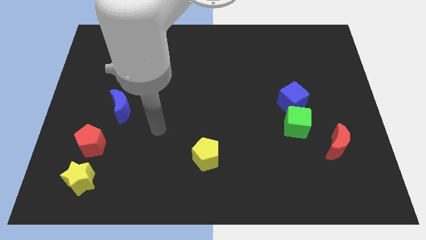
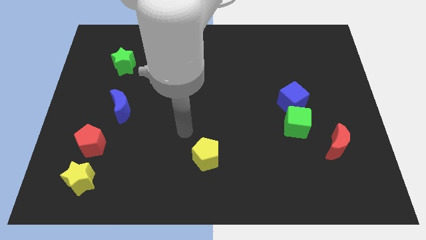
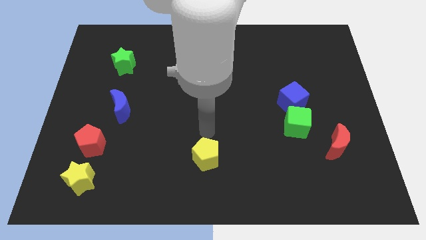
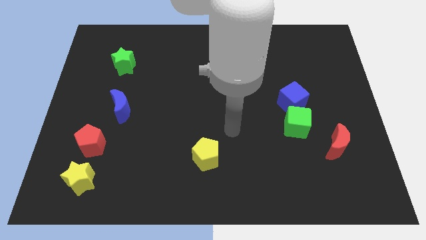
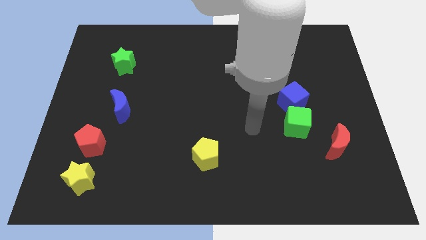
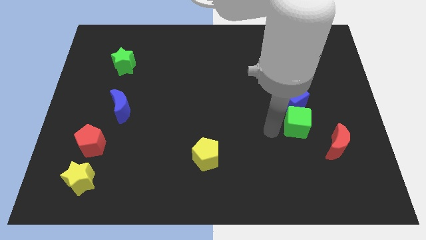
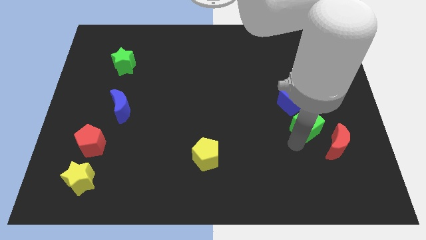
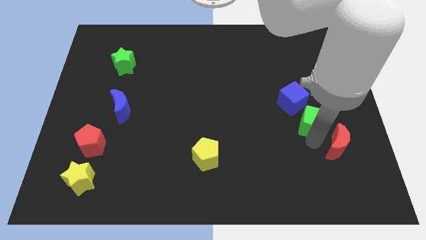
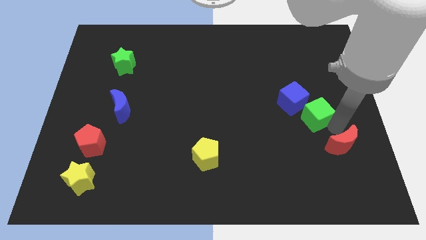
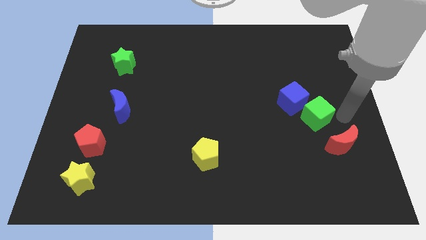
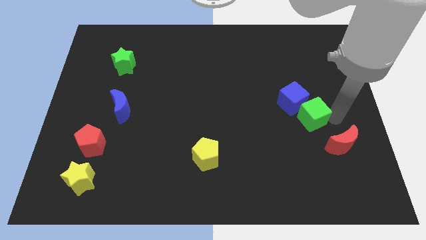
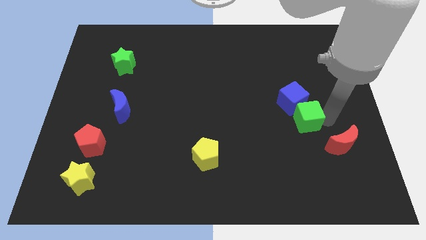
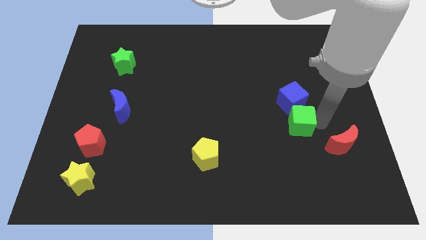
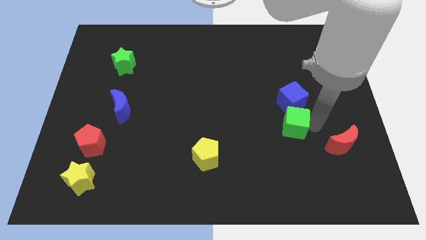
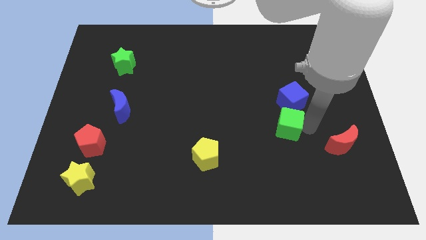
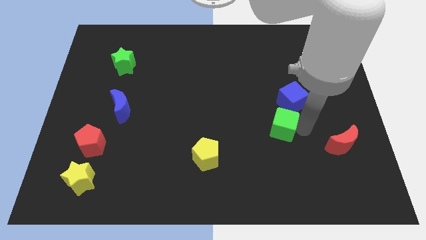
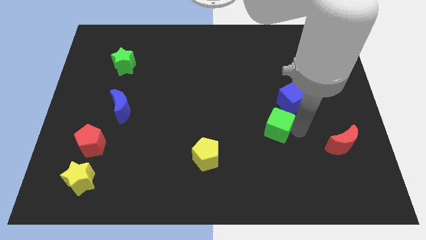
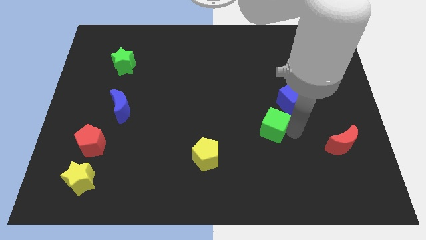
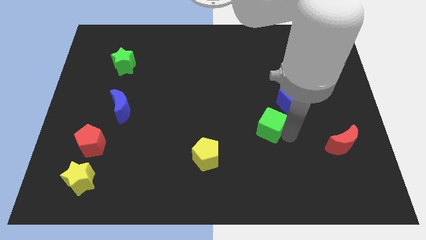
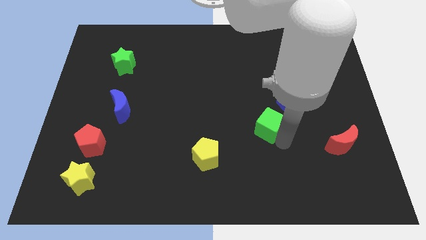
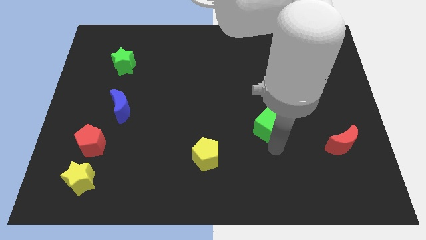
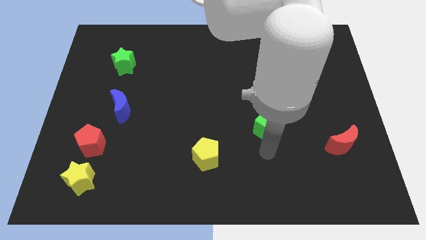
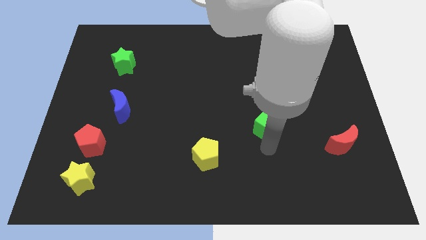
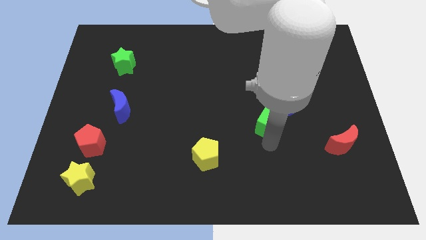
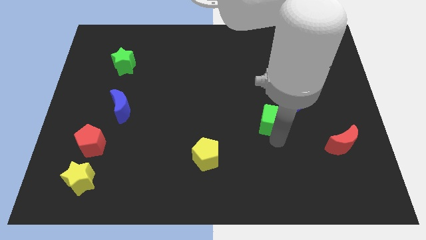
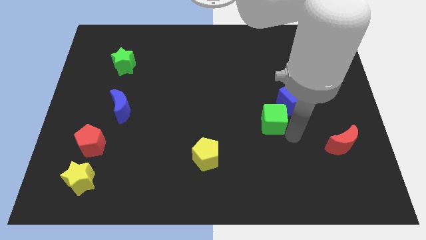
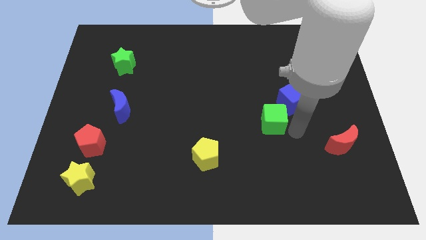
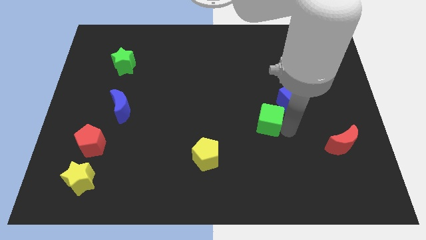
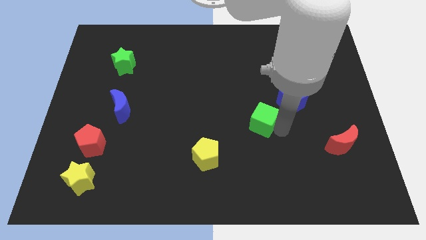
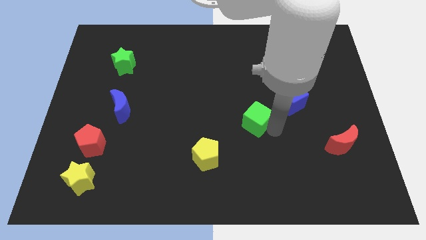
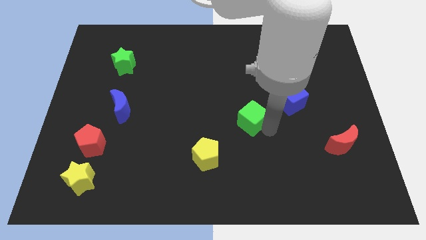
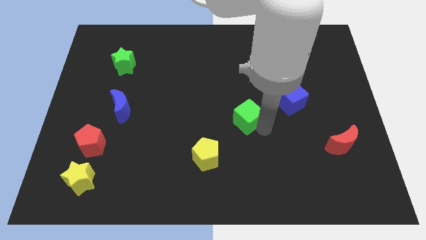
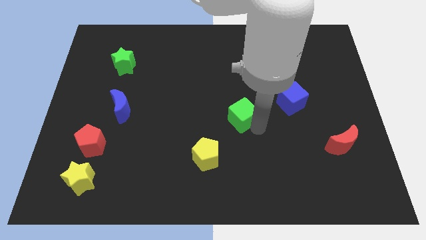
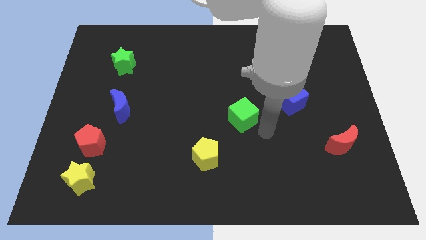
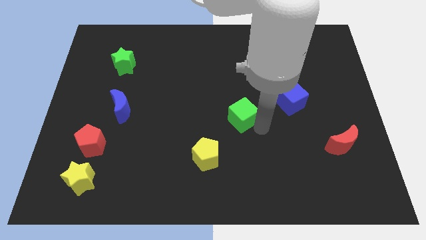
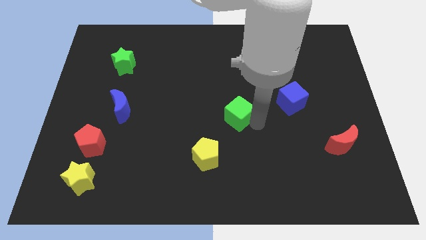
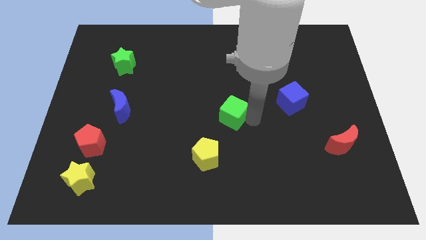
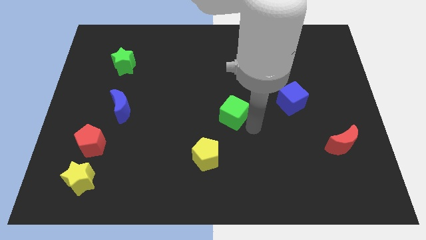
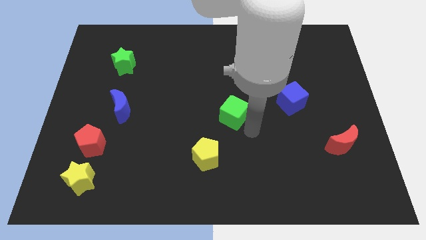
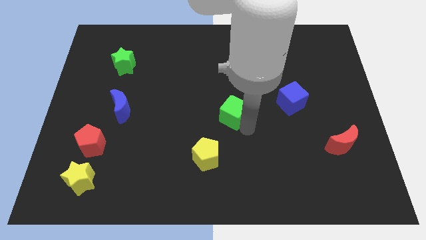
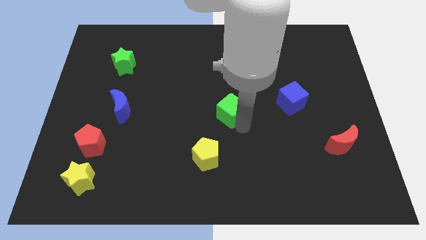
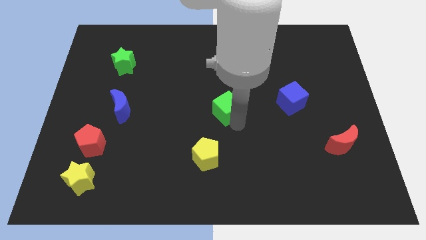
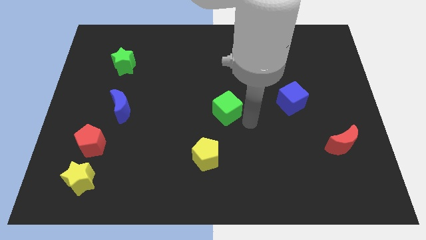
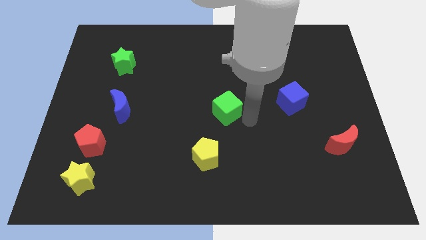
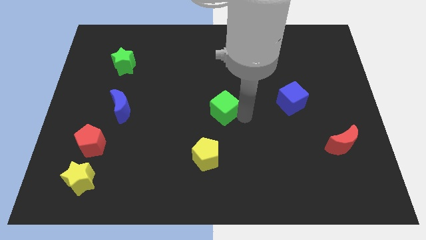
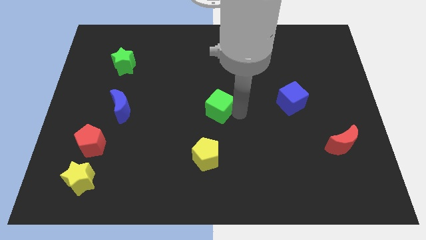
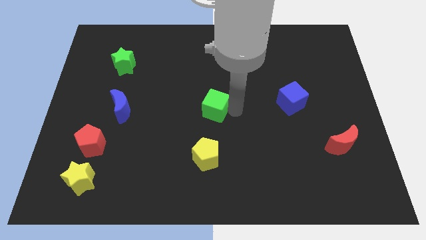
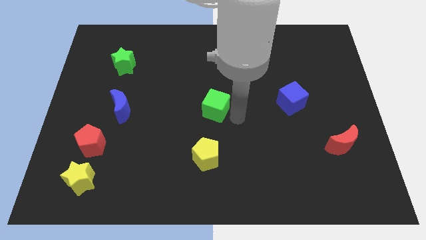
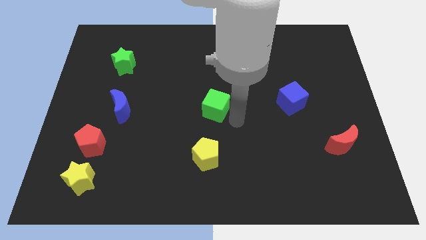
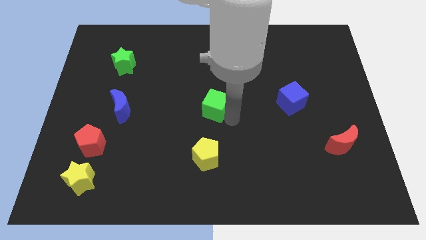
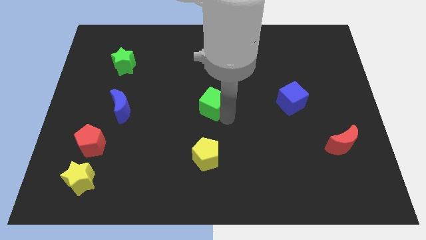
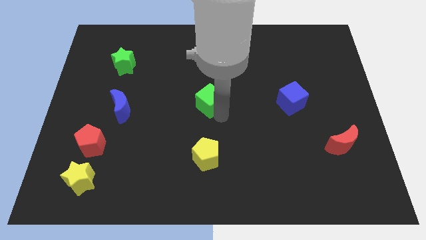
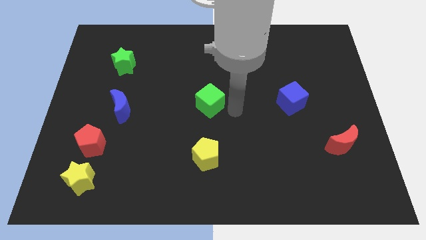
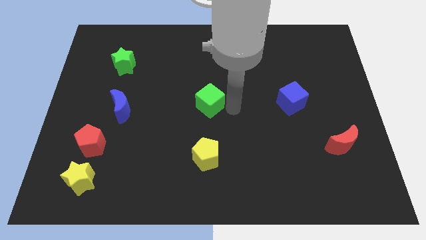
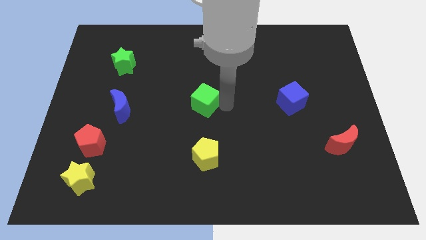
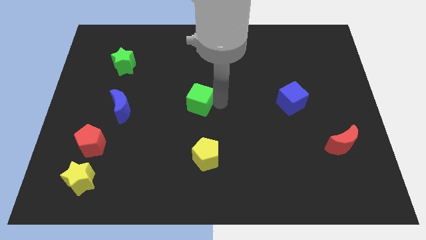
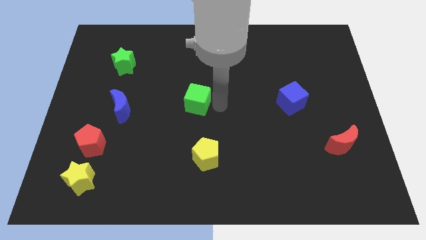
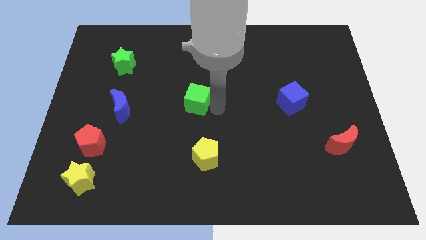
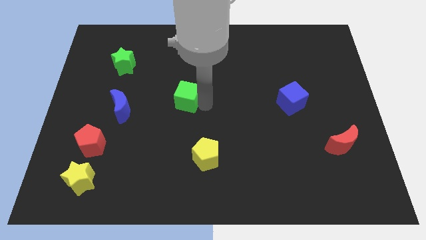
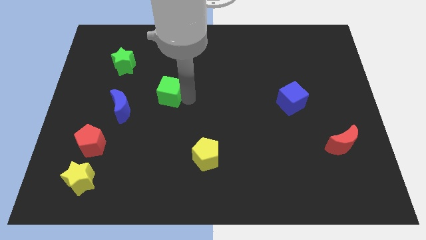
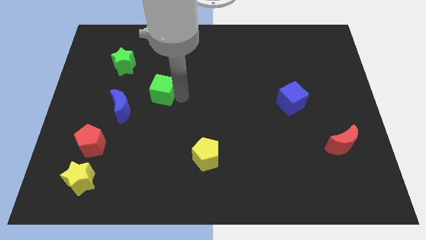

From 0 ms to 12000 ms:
push the green cube diagonally up and to the right of the blue moon

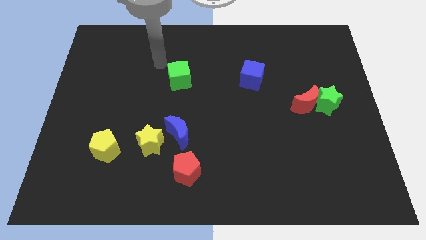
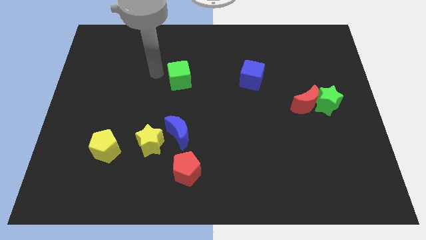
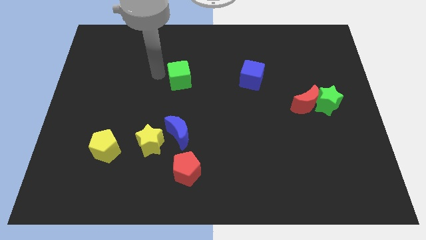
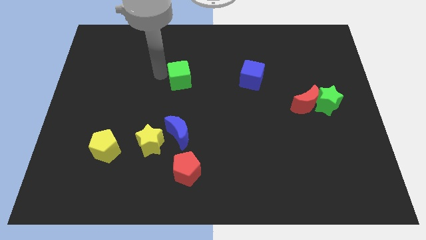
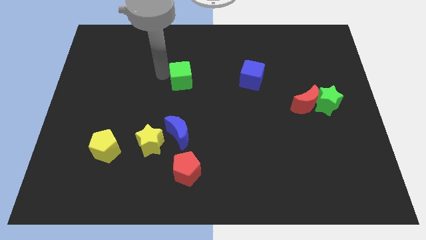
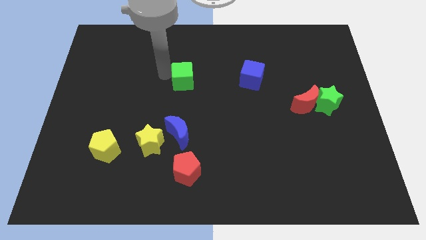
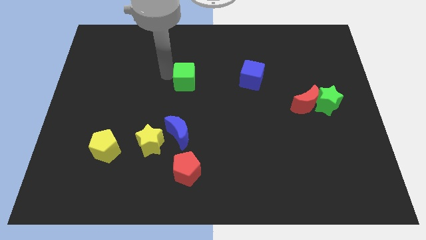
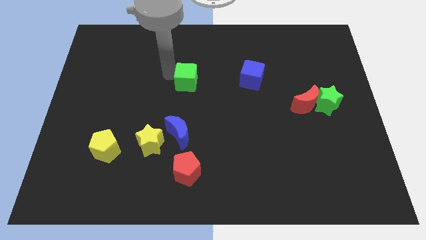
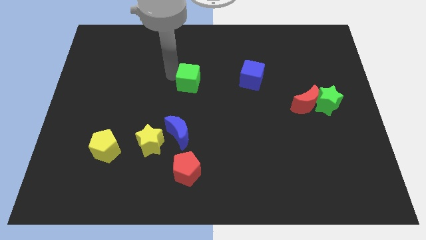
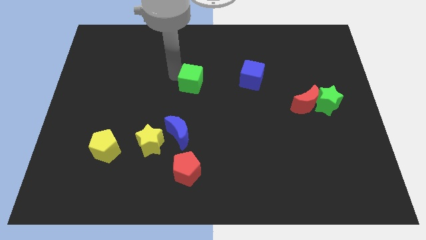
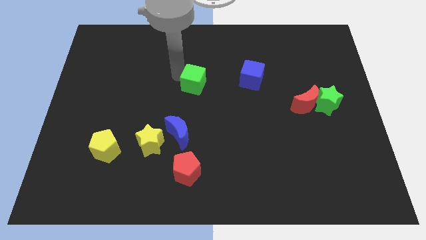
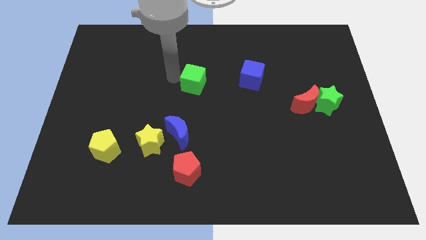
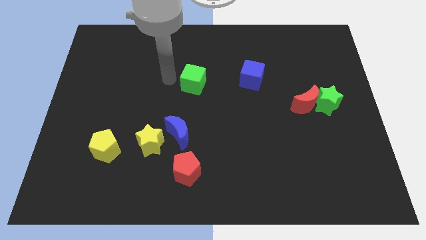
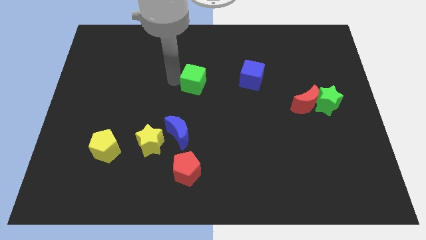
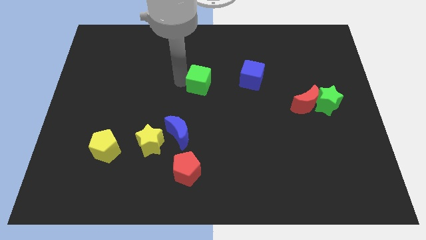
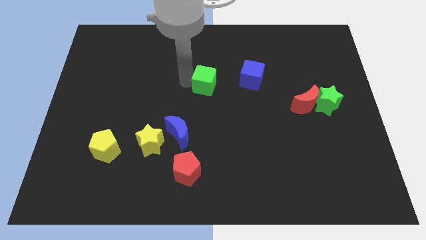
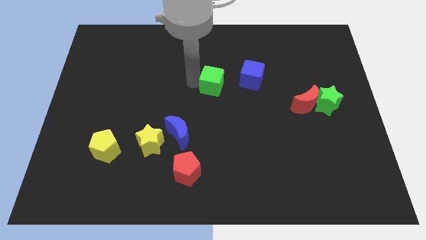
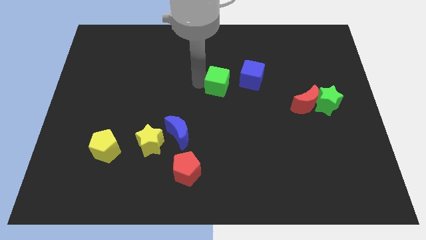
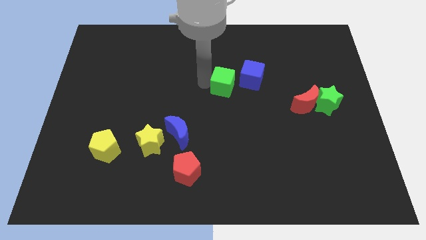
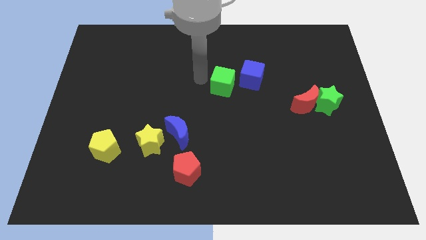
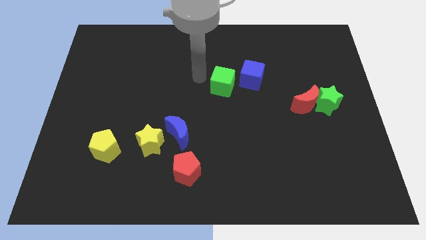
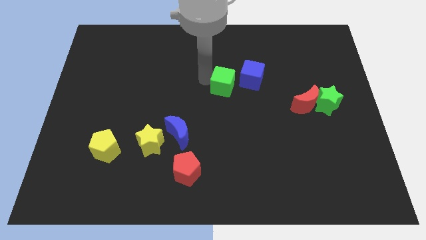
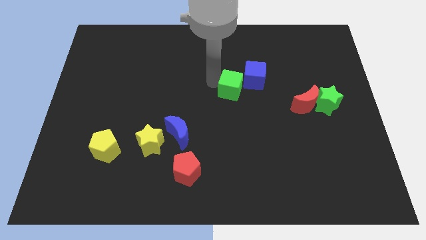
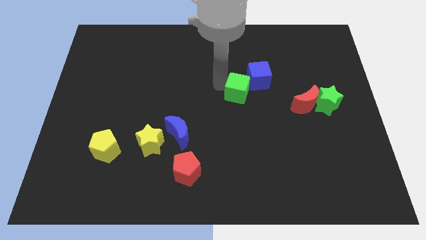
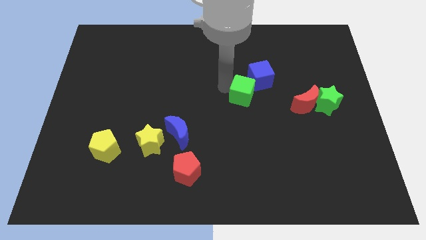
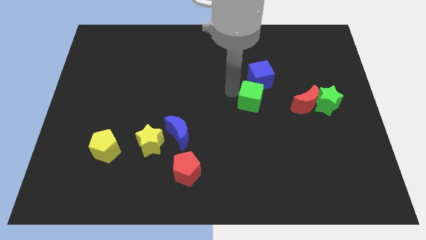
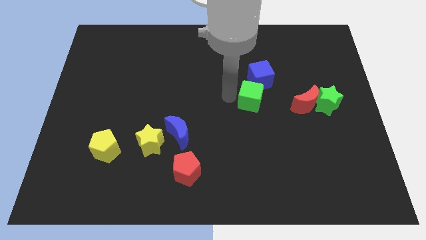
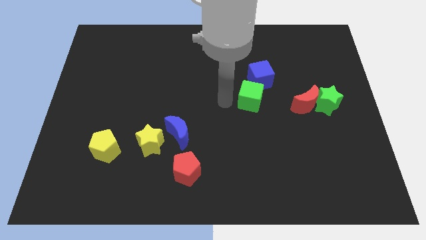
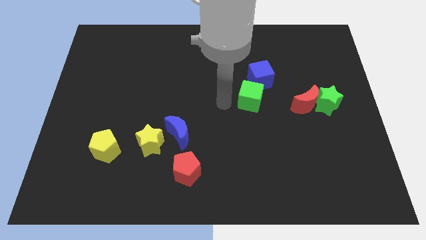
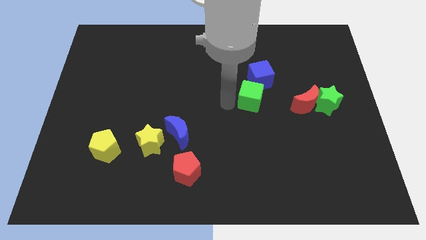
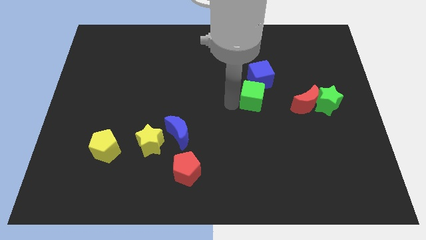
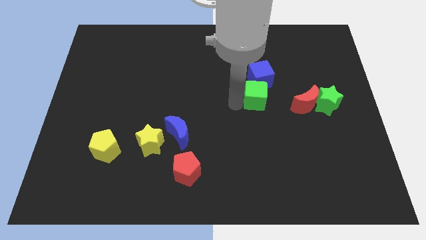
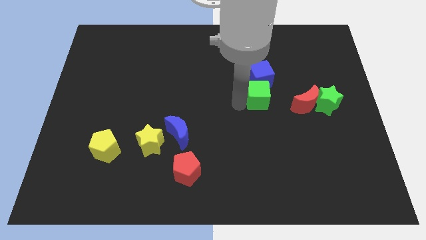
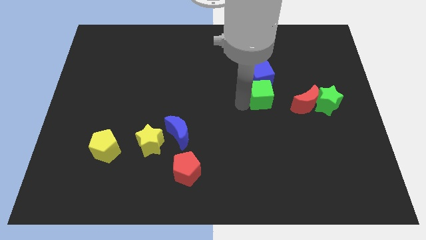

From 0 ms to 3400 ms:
move the green cube diagonally down and to the right of the blue cube
